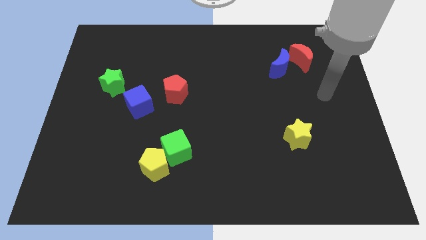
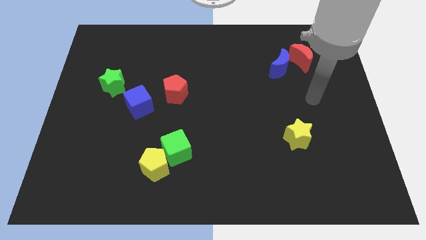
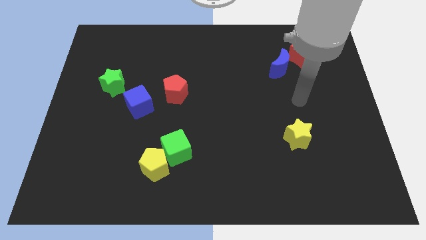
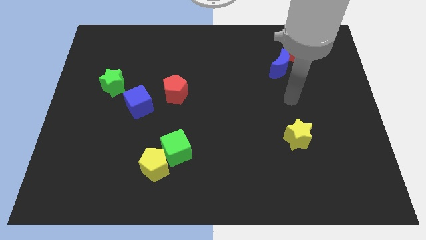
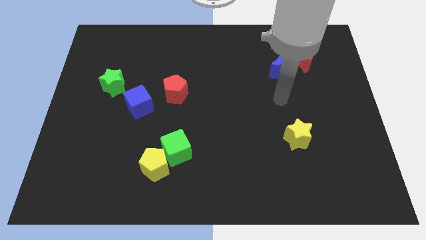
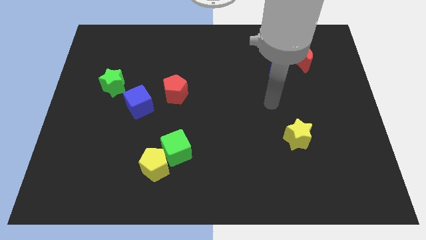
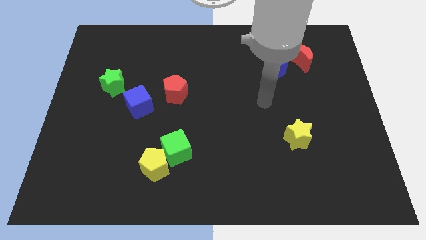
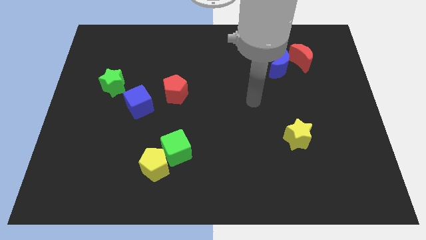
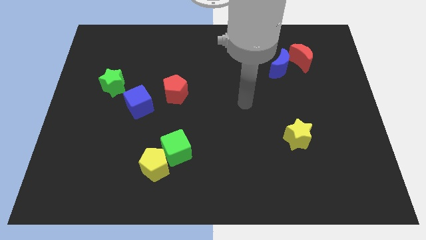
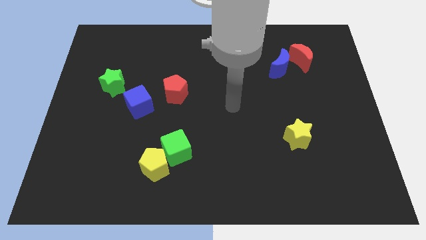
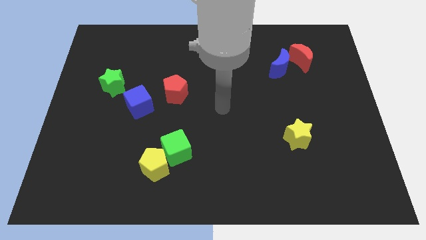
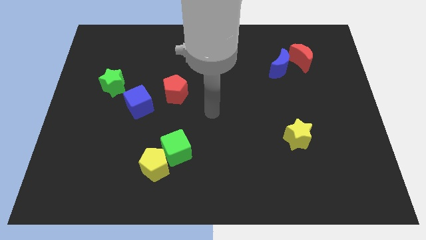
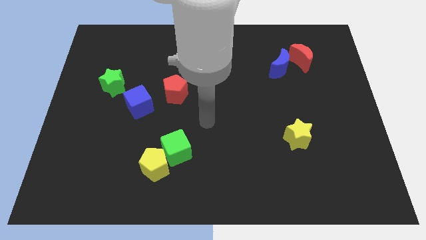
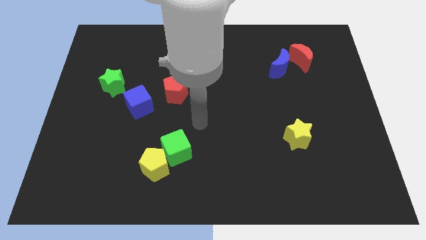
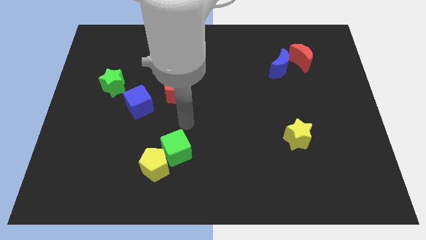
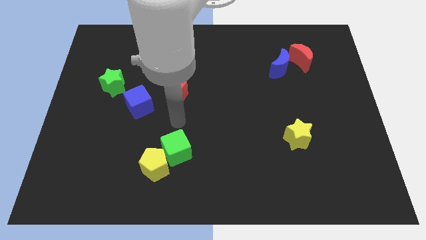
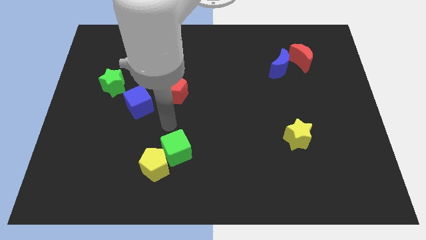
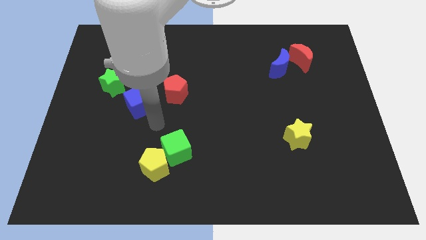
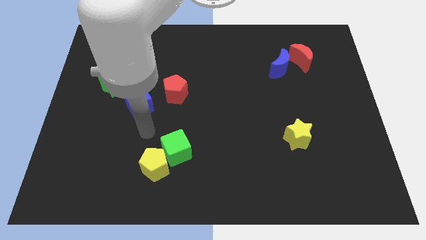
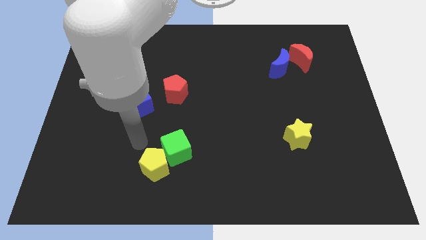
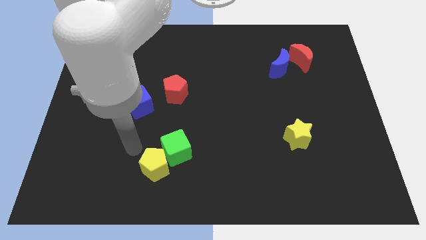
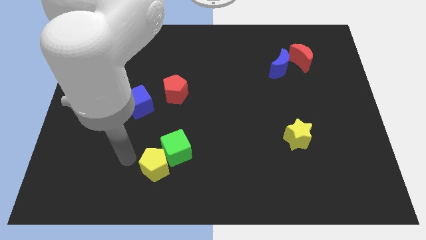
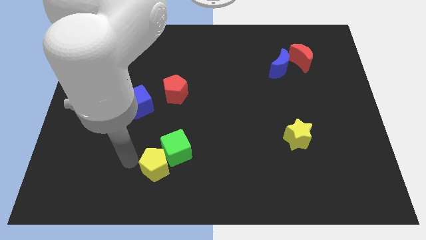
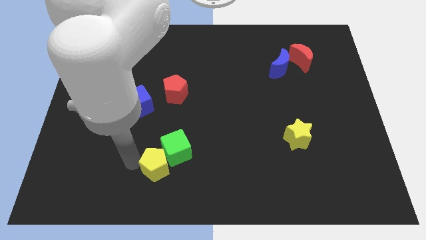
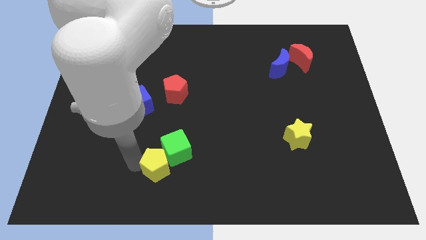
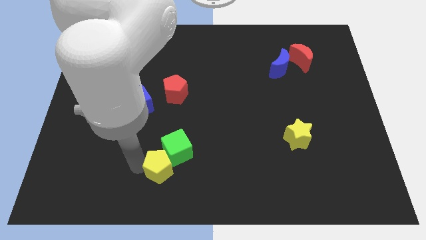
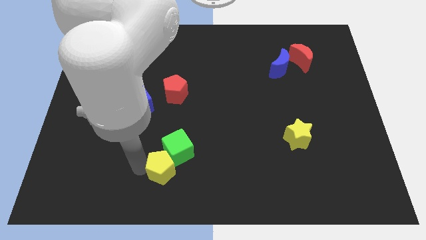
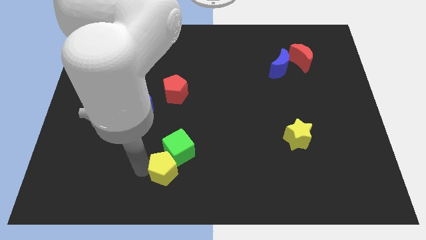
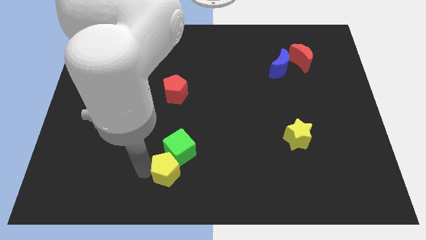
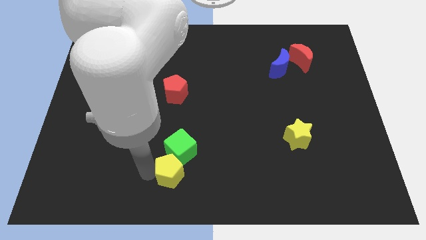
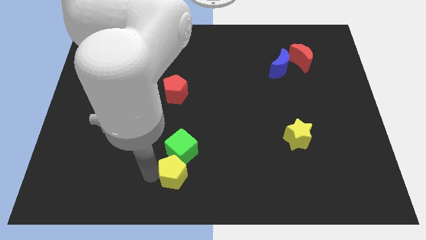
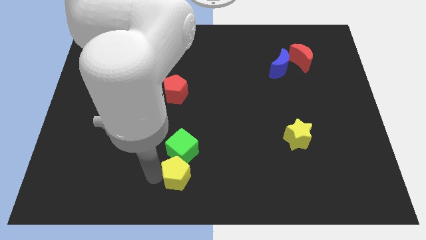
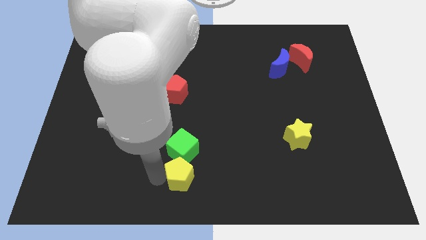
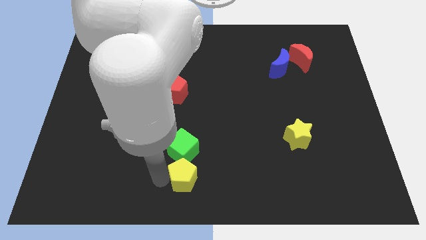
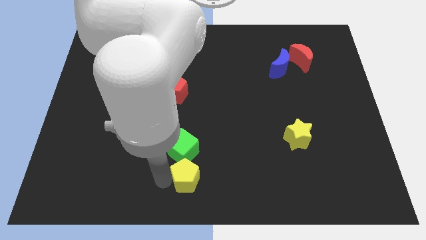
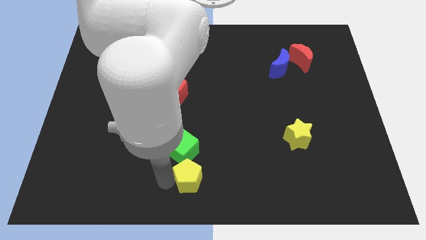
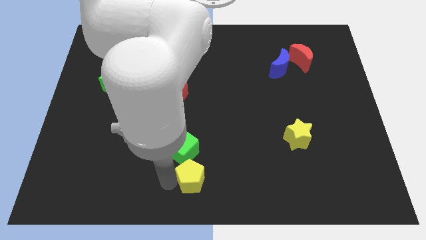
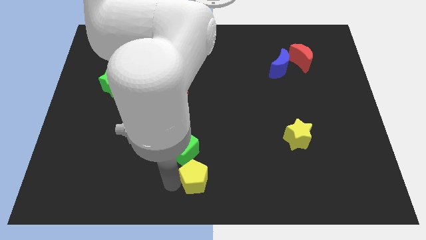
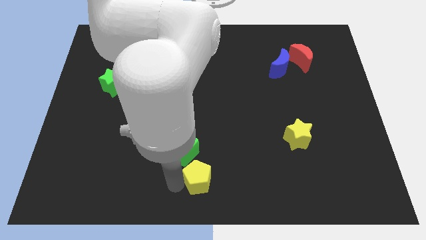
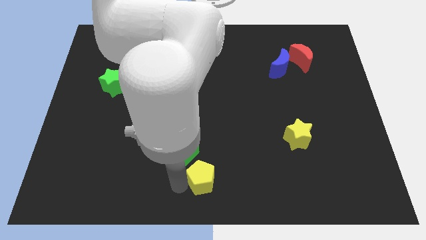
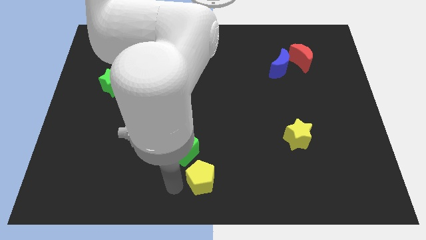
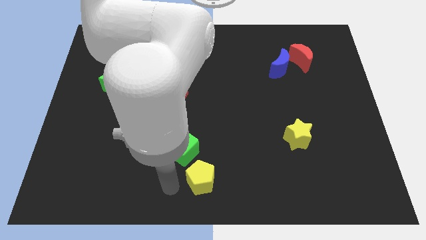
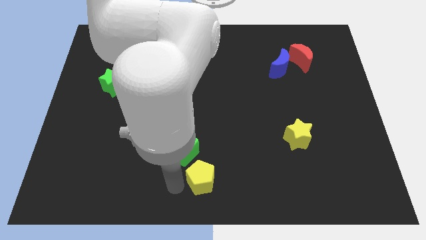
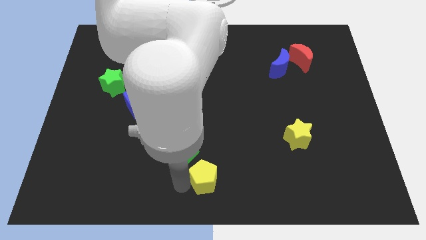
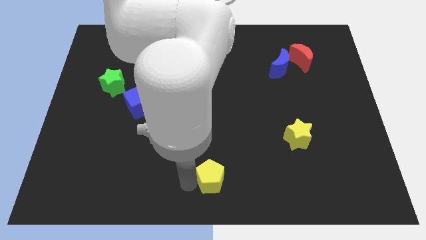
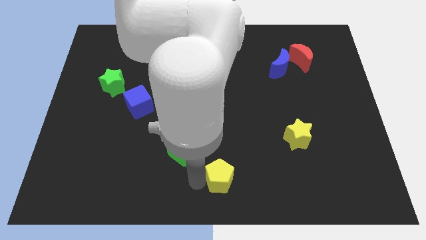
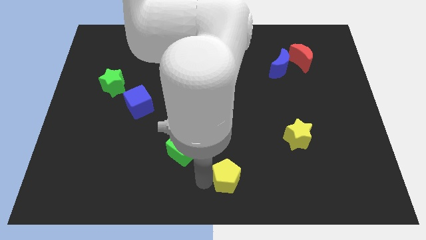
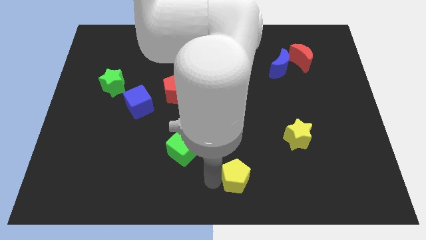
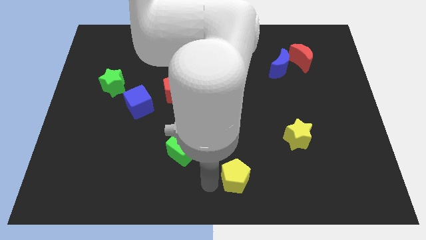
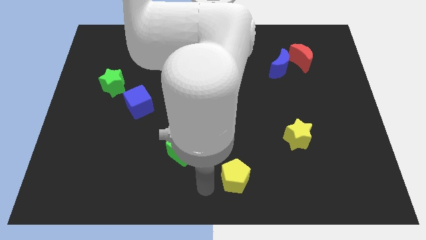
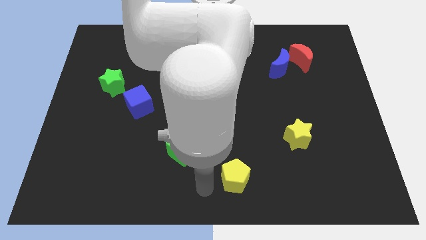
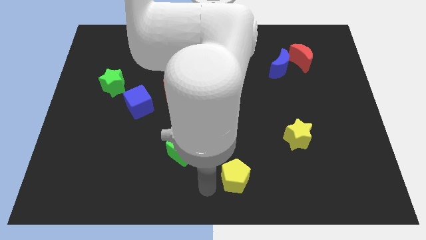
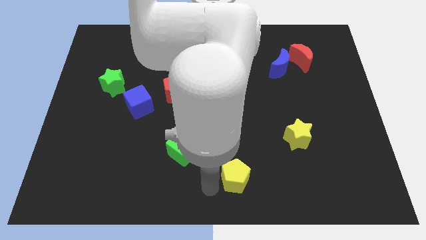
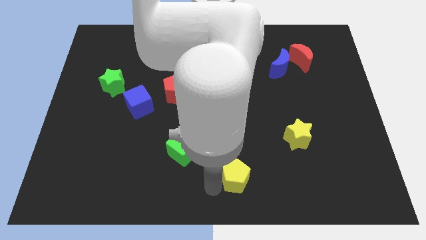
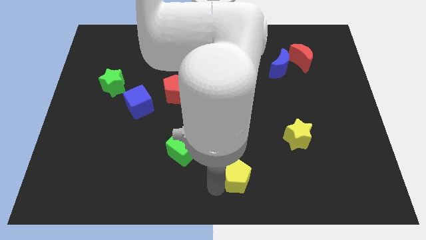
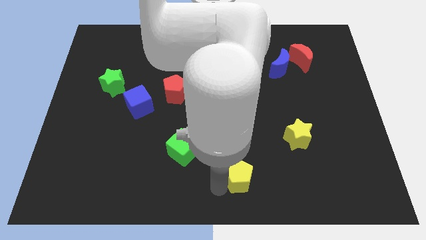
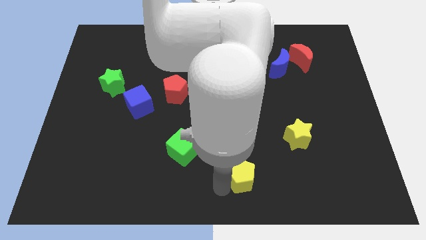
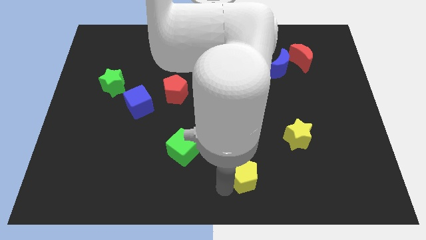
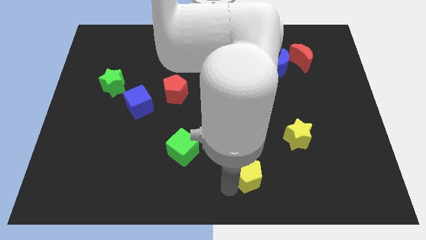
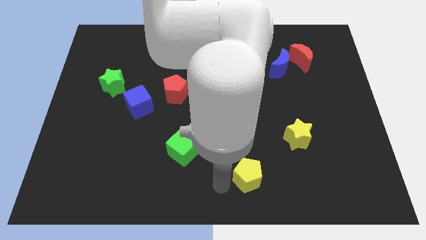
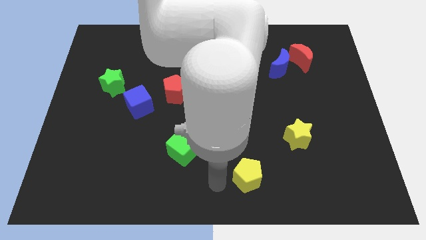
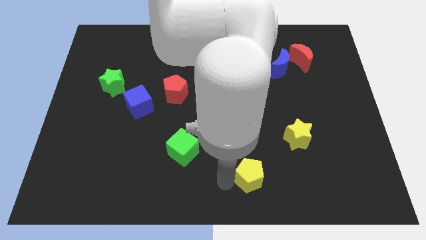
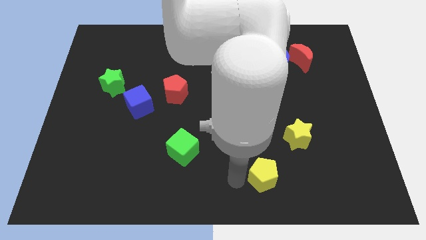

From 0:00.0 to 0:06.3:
slide the yellow pentagon right

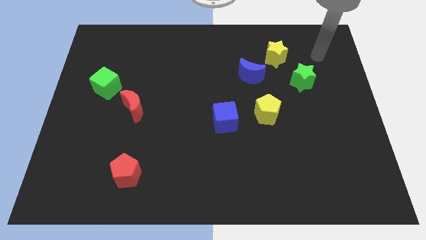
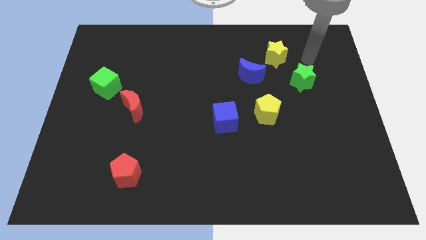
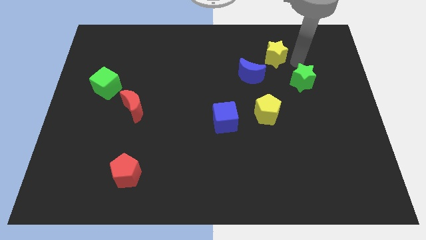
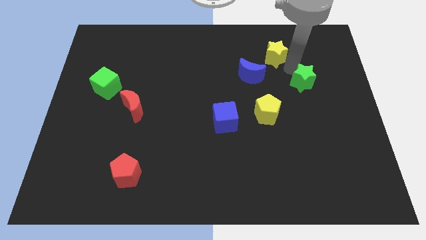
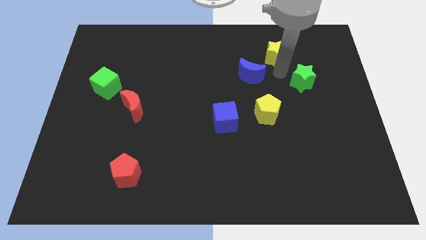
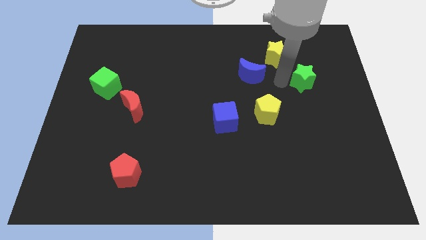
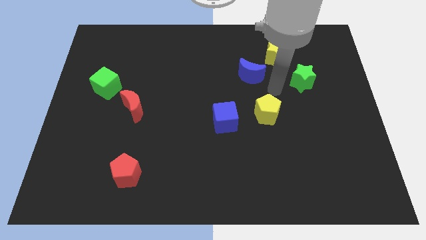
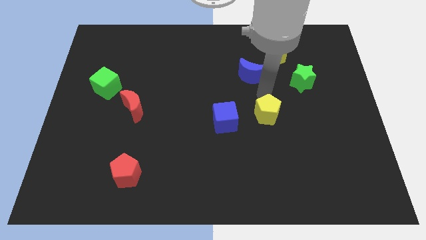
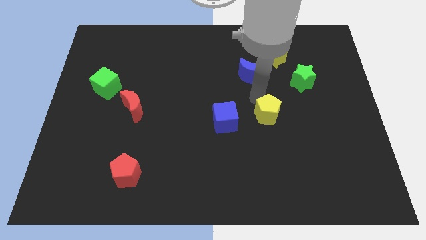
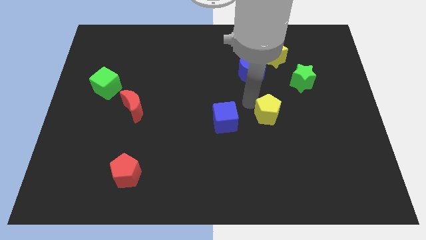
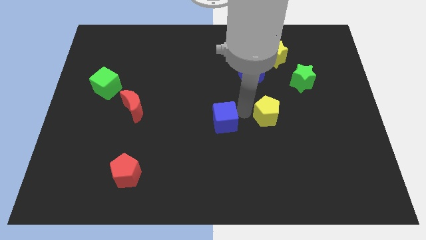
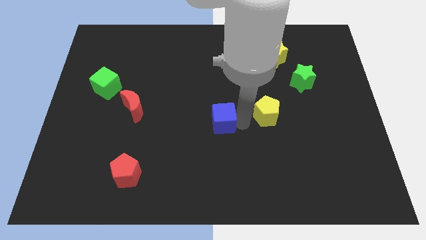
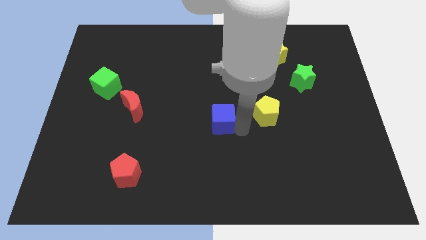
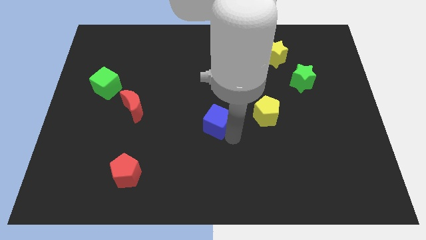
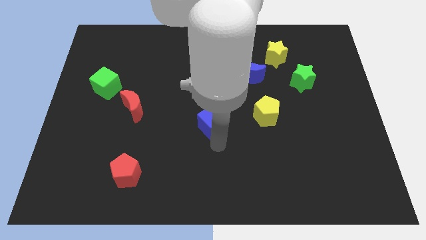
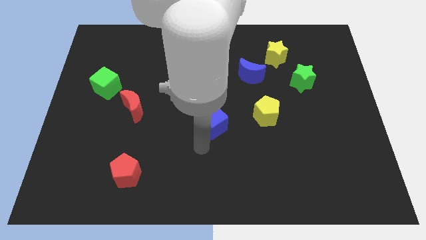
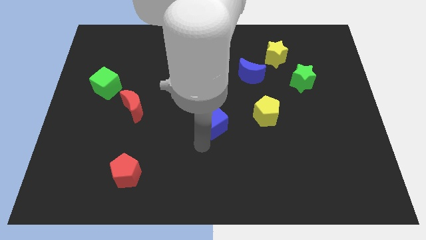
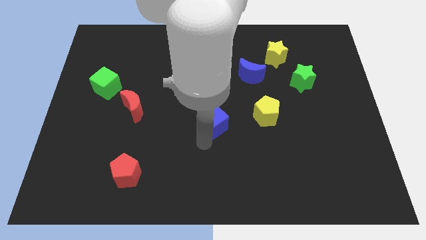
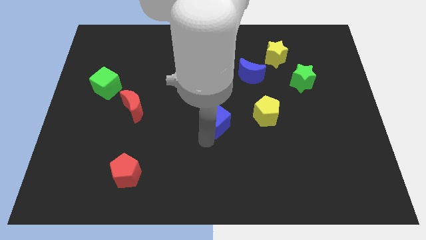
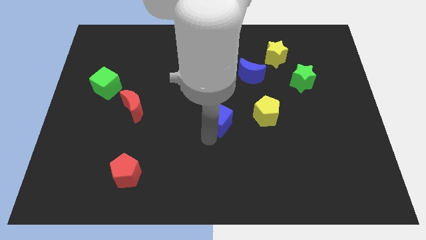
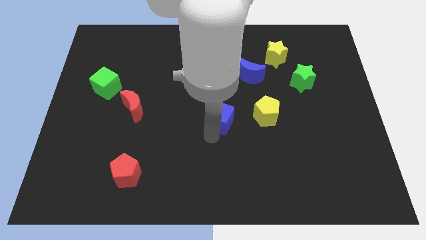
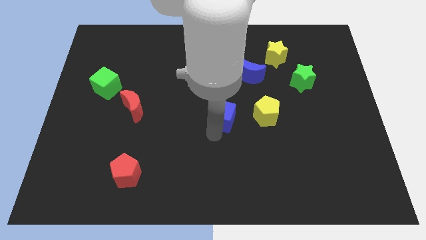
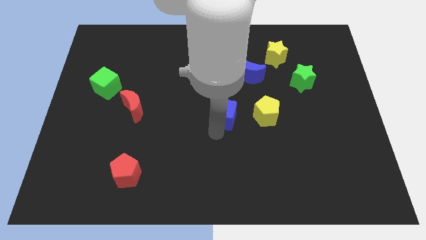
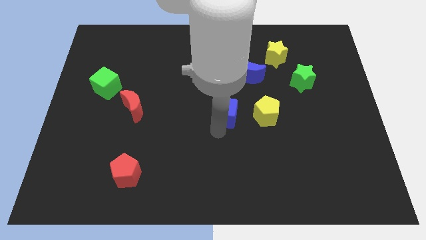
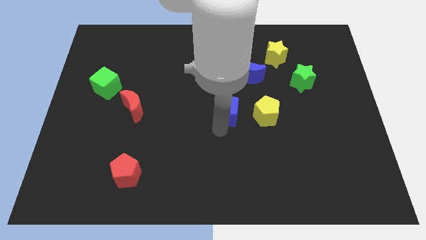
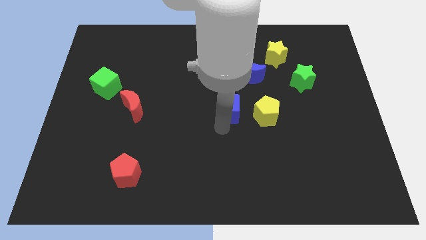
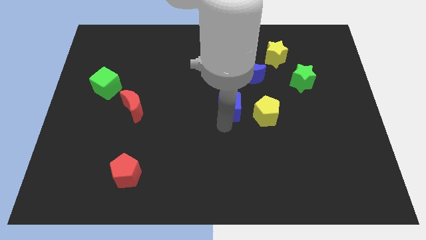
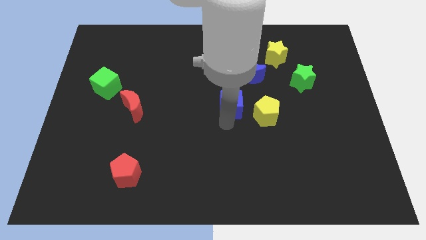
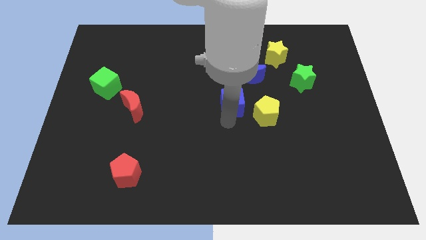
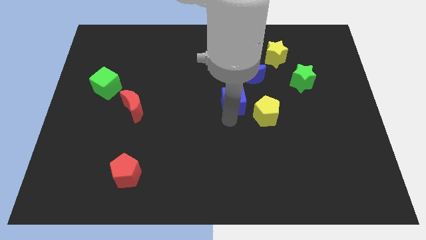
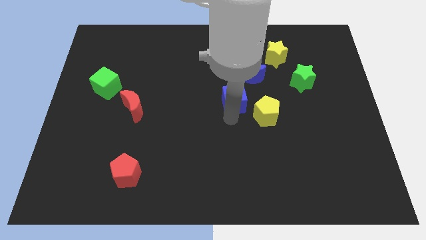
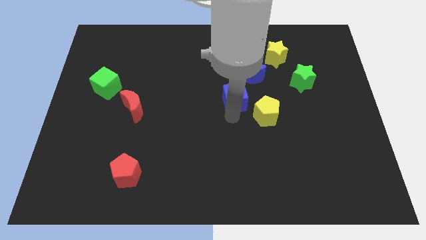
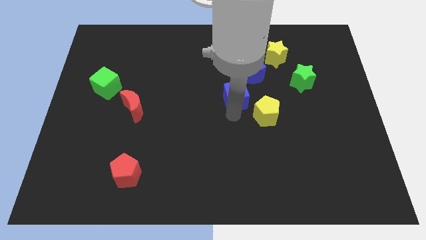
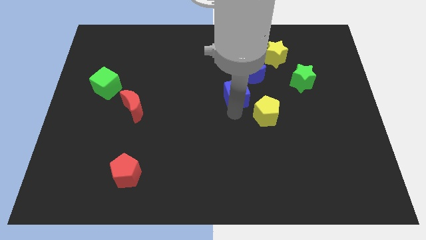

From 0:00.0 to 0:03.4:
slightly push the blue cube up
